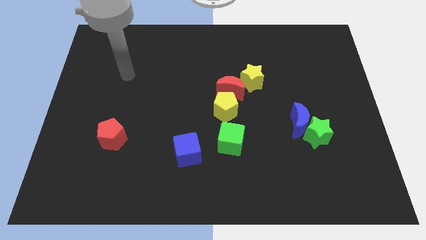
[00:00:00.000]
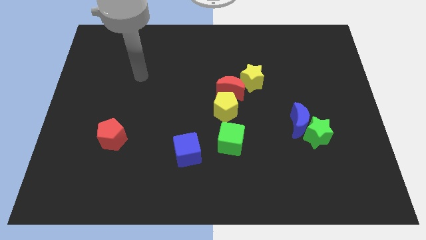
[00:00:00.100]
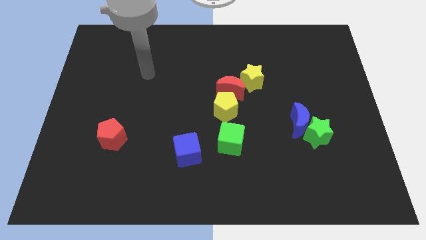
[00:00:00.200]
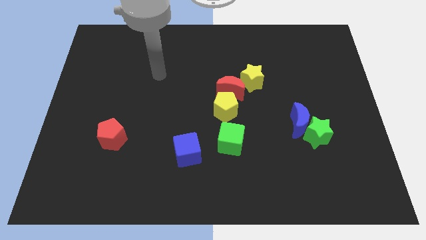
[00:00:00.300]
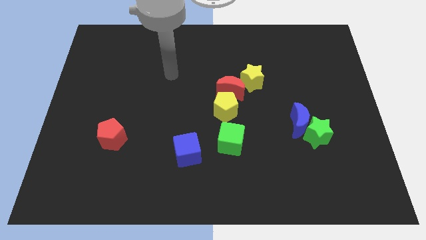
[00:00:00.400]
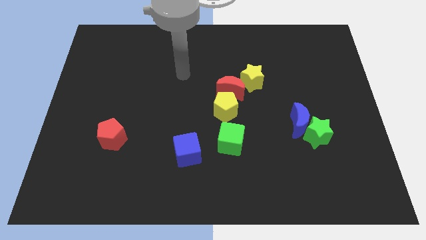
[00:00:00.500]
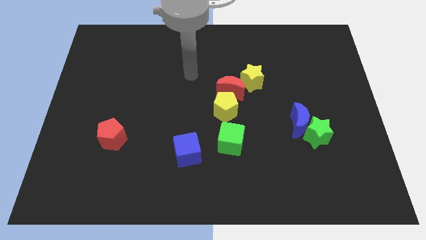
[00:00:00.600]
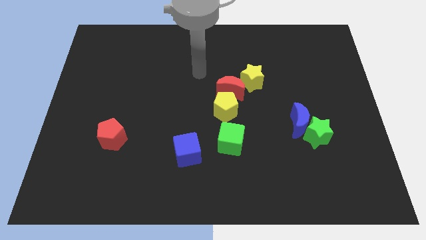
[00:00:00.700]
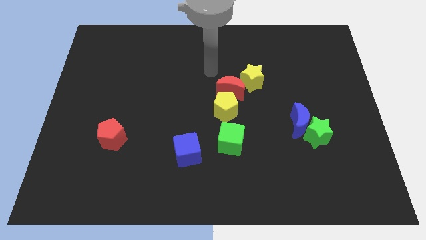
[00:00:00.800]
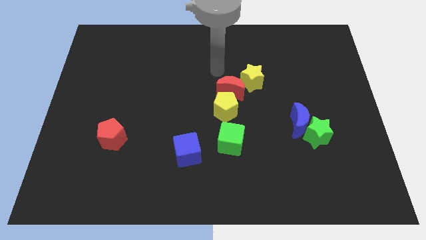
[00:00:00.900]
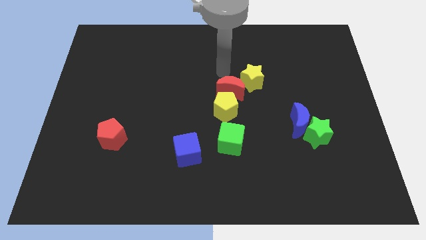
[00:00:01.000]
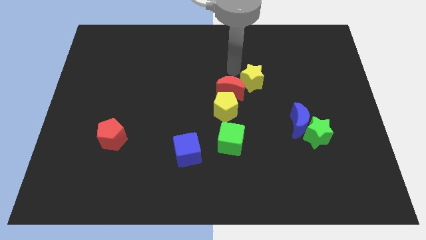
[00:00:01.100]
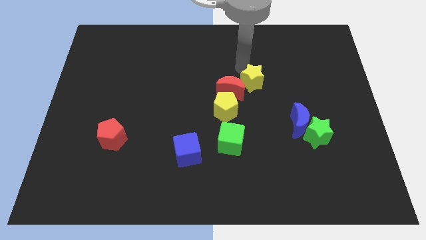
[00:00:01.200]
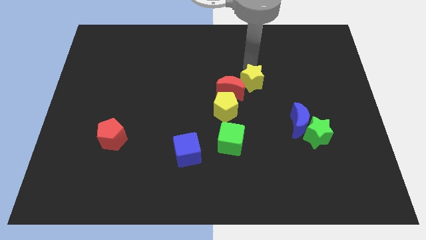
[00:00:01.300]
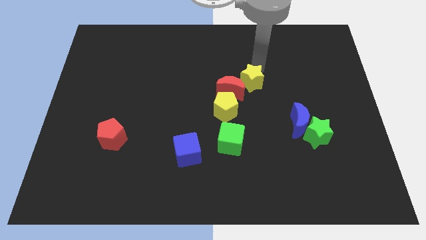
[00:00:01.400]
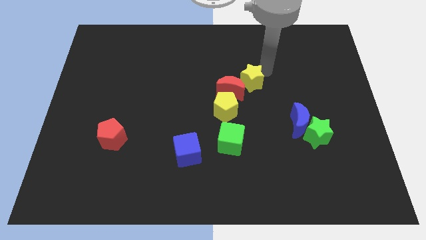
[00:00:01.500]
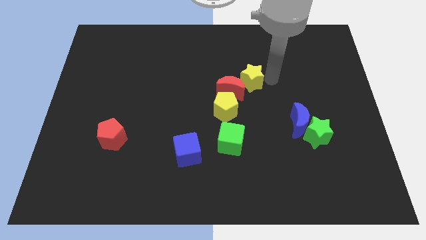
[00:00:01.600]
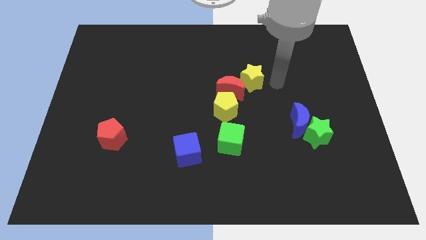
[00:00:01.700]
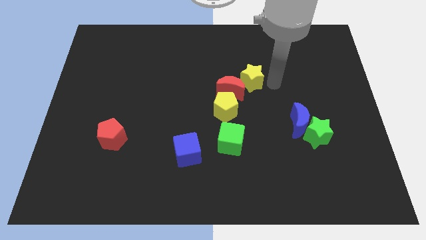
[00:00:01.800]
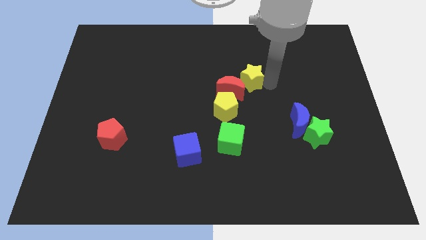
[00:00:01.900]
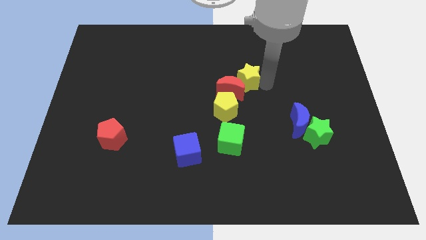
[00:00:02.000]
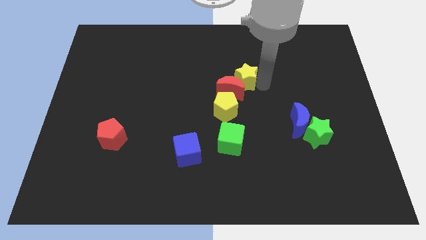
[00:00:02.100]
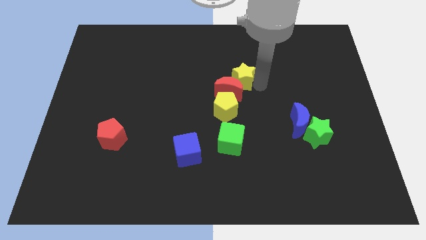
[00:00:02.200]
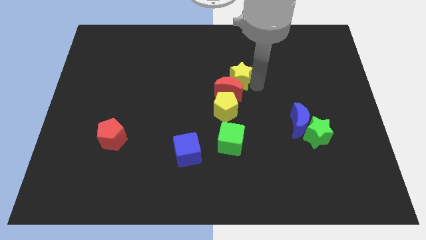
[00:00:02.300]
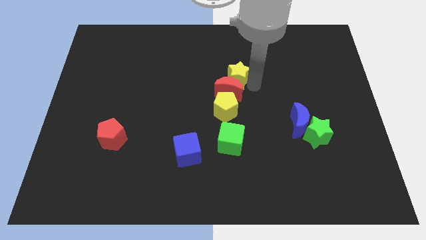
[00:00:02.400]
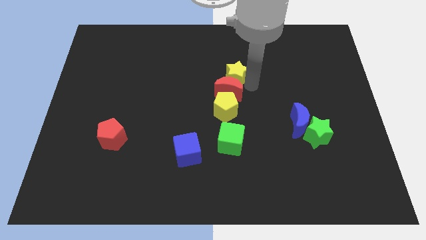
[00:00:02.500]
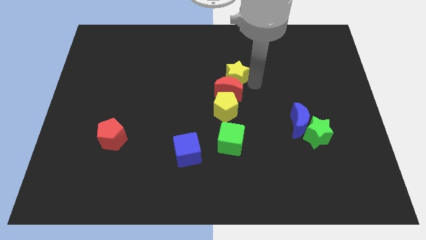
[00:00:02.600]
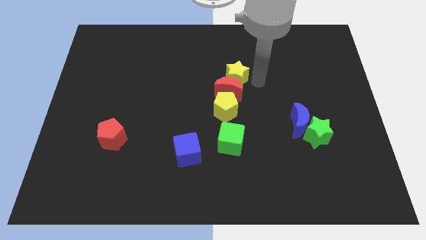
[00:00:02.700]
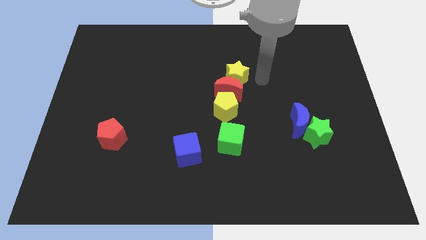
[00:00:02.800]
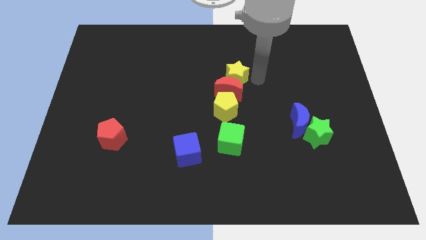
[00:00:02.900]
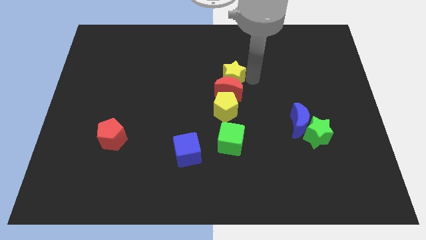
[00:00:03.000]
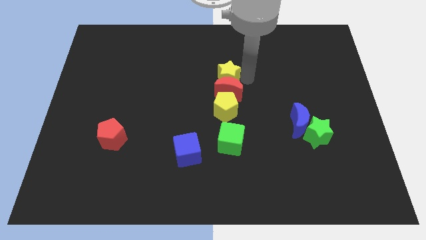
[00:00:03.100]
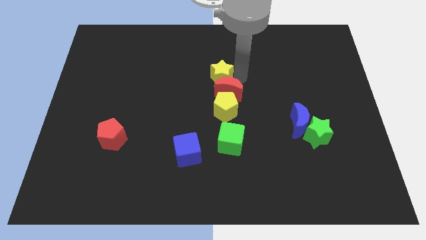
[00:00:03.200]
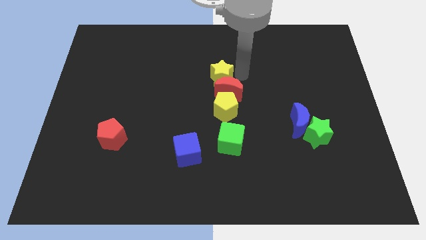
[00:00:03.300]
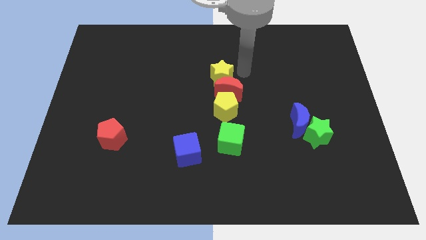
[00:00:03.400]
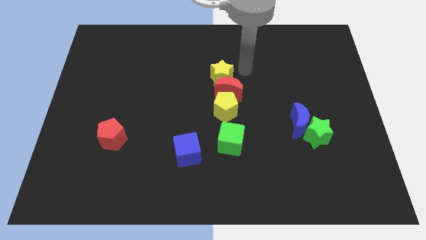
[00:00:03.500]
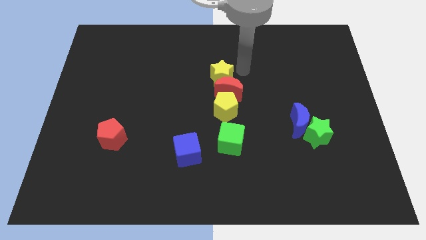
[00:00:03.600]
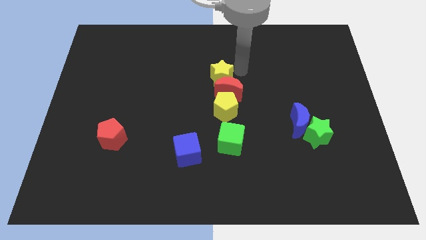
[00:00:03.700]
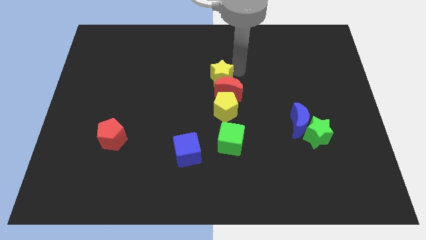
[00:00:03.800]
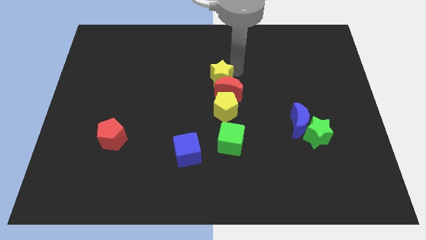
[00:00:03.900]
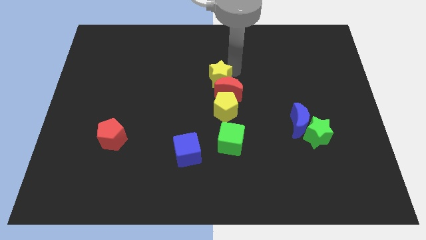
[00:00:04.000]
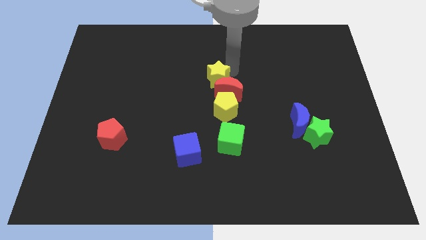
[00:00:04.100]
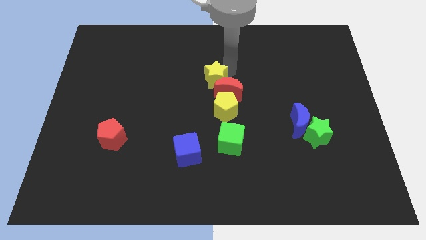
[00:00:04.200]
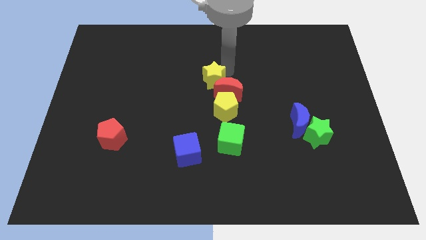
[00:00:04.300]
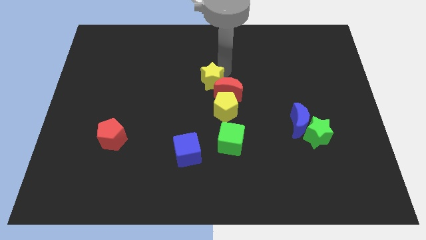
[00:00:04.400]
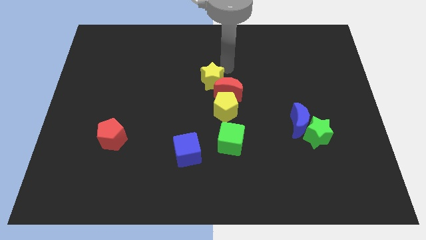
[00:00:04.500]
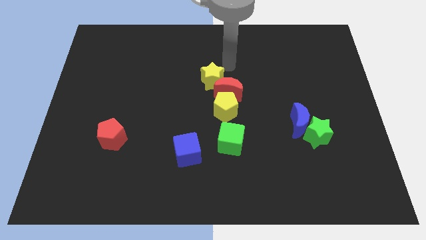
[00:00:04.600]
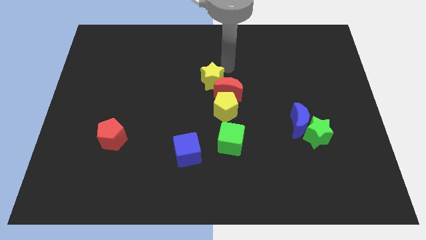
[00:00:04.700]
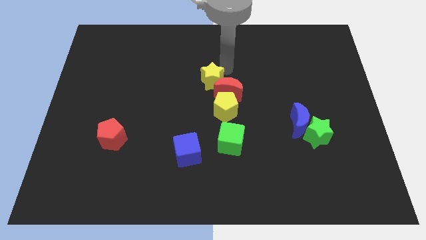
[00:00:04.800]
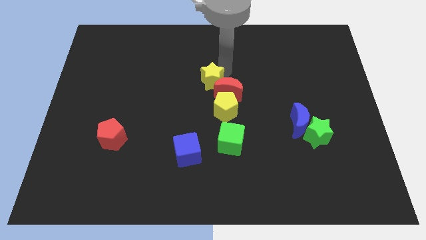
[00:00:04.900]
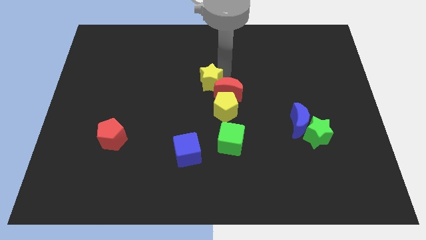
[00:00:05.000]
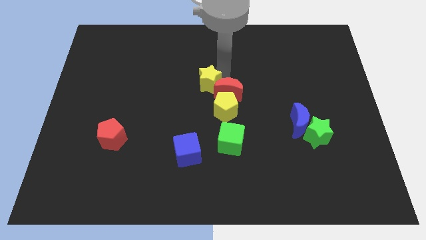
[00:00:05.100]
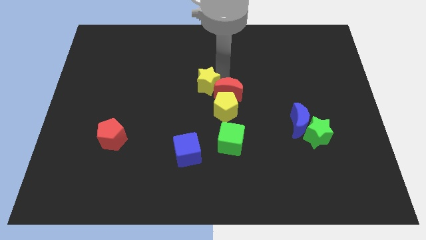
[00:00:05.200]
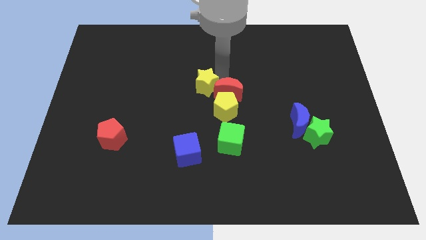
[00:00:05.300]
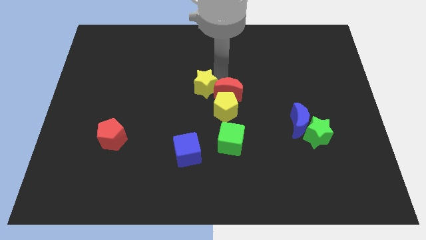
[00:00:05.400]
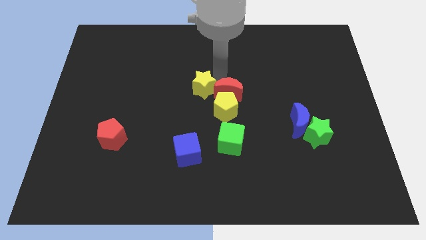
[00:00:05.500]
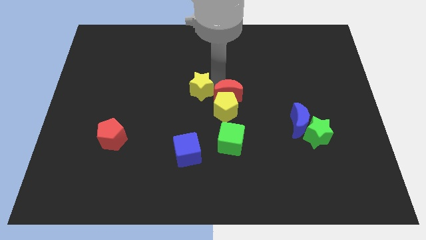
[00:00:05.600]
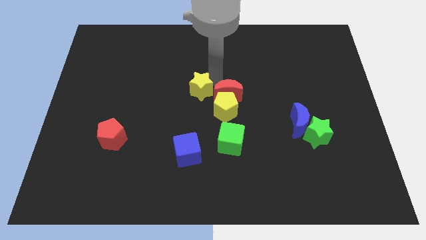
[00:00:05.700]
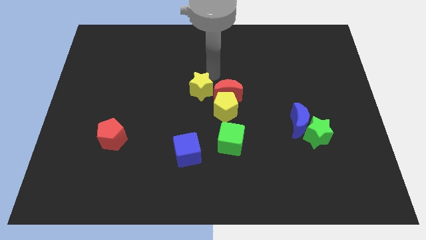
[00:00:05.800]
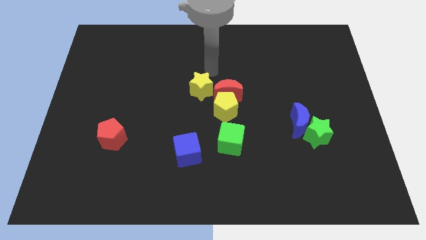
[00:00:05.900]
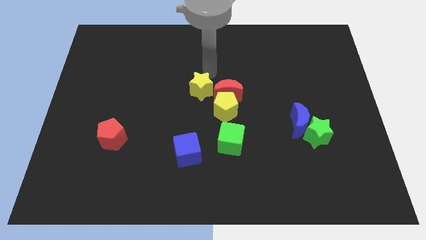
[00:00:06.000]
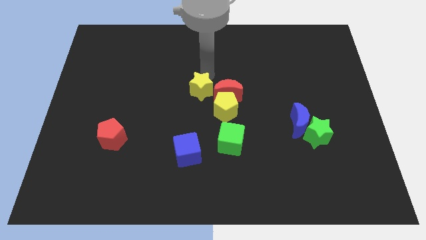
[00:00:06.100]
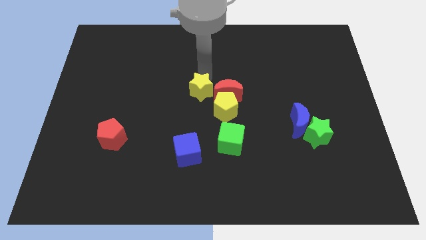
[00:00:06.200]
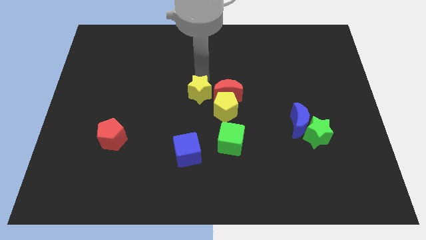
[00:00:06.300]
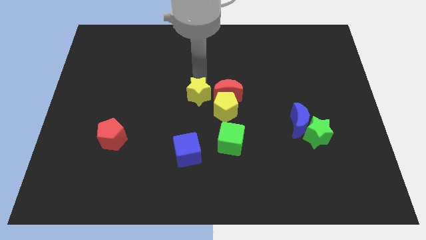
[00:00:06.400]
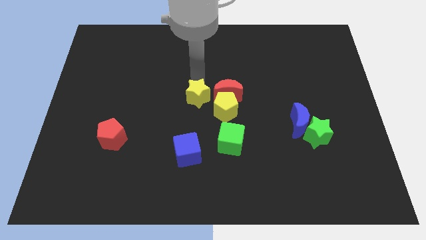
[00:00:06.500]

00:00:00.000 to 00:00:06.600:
push the yellow star to the top side of the blue cube

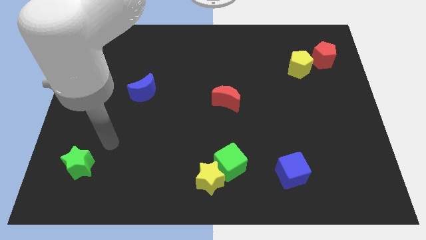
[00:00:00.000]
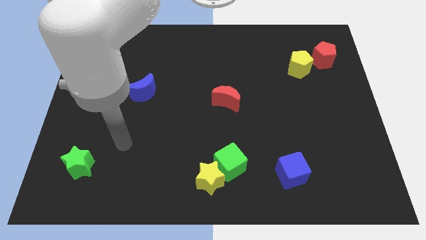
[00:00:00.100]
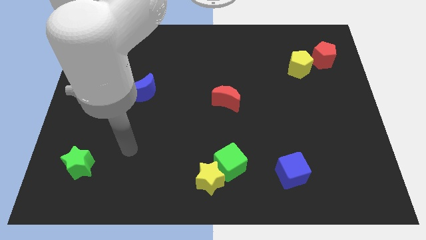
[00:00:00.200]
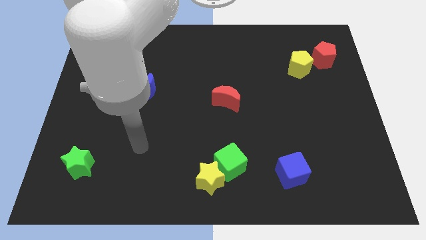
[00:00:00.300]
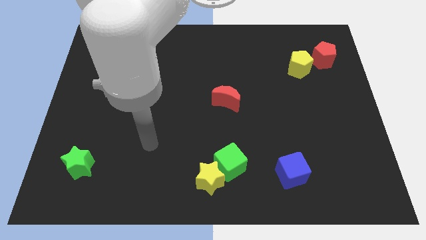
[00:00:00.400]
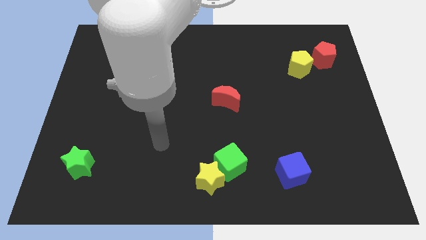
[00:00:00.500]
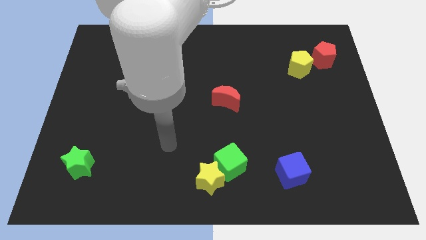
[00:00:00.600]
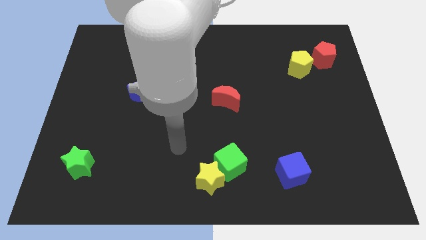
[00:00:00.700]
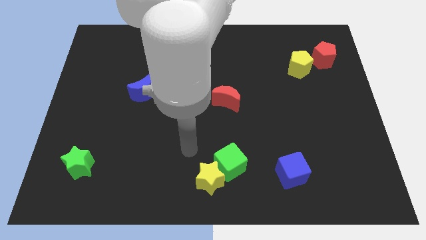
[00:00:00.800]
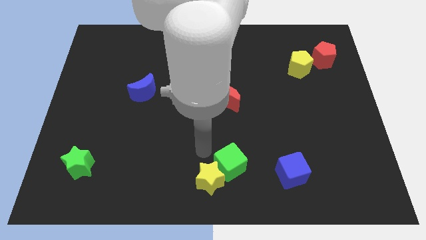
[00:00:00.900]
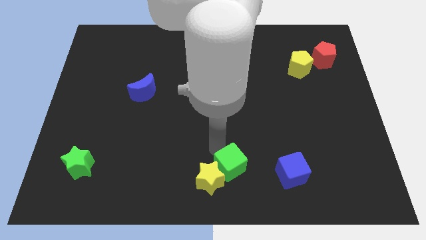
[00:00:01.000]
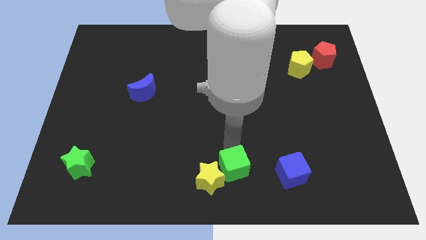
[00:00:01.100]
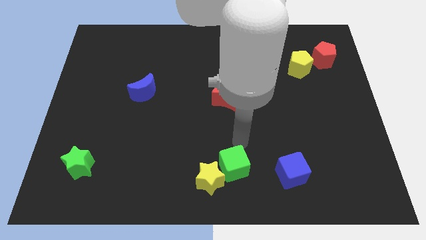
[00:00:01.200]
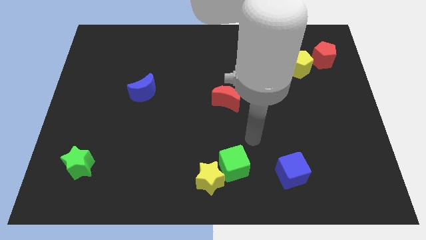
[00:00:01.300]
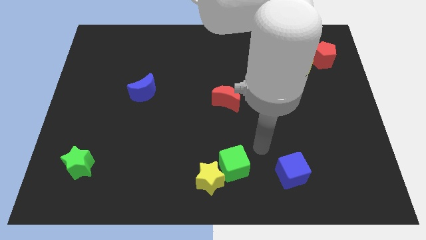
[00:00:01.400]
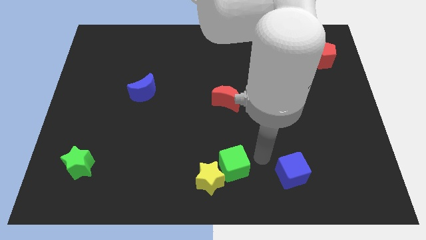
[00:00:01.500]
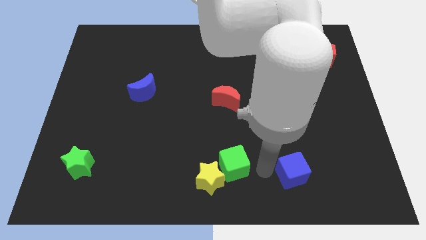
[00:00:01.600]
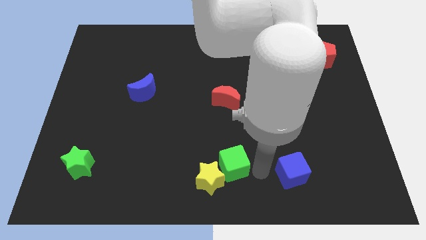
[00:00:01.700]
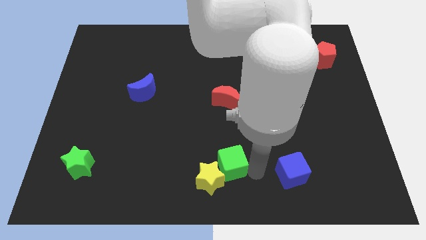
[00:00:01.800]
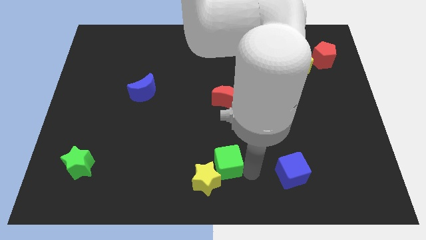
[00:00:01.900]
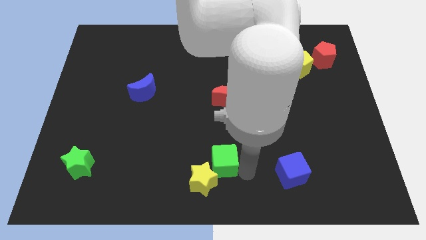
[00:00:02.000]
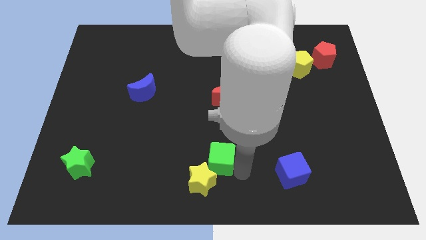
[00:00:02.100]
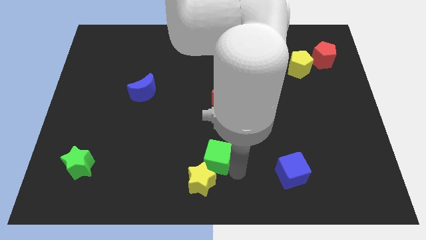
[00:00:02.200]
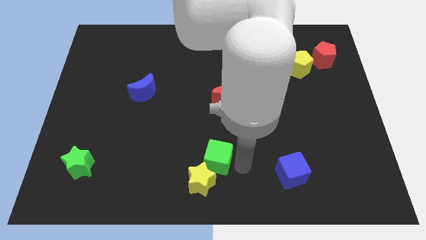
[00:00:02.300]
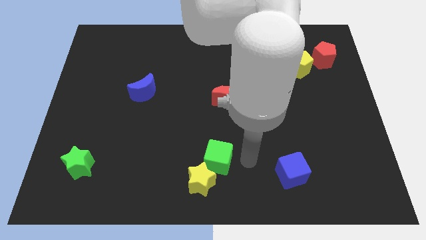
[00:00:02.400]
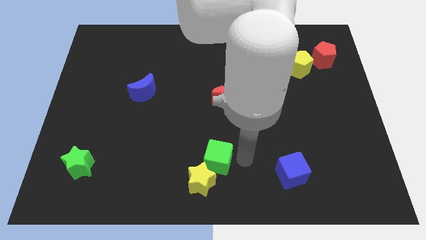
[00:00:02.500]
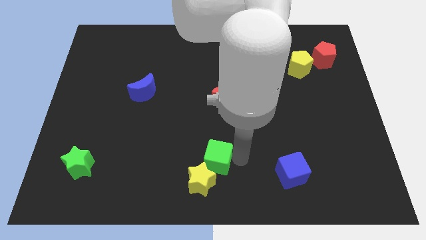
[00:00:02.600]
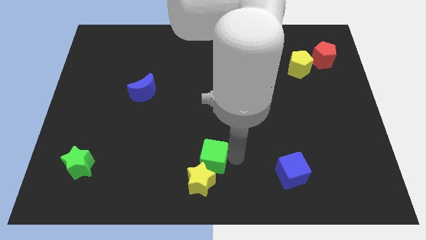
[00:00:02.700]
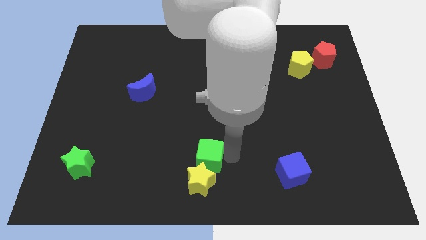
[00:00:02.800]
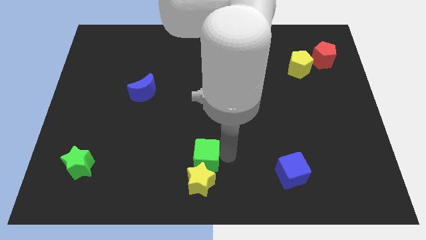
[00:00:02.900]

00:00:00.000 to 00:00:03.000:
move the green cube diagonally up and to the left of the yellow star
